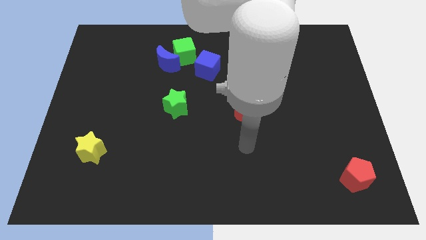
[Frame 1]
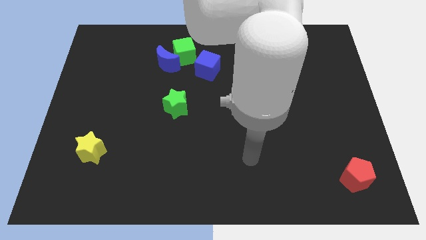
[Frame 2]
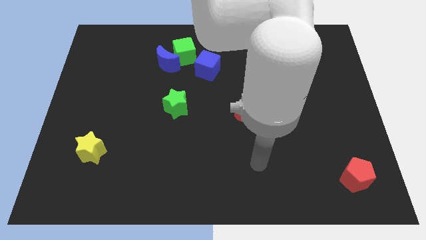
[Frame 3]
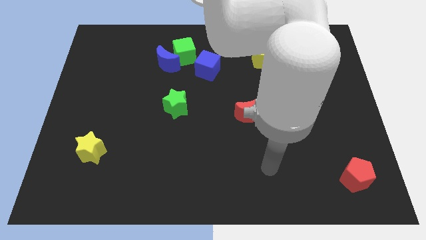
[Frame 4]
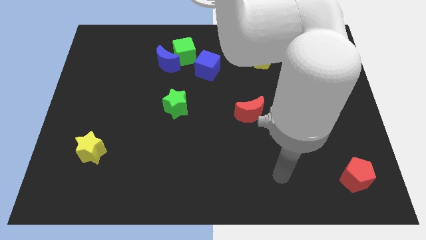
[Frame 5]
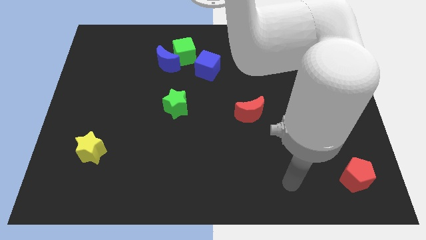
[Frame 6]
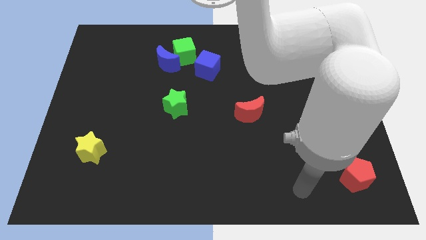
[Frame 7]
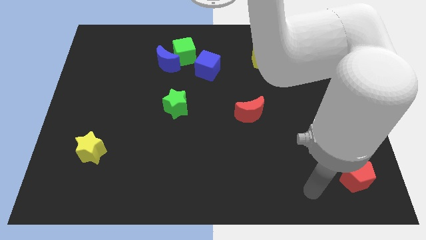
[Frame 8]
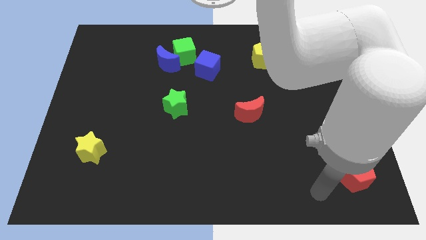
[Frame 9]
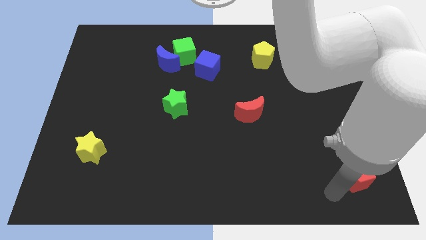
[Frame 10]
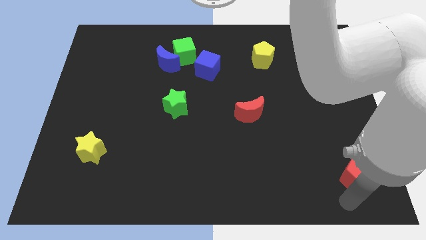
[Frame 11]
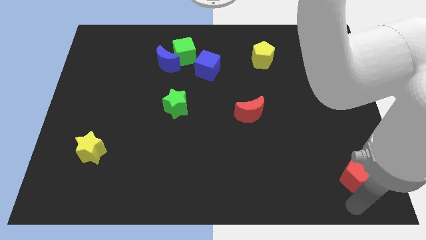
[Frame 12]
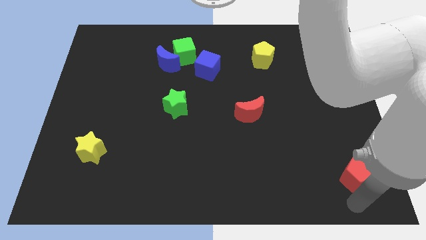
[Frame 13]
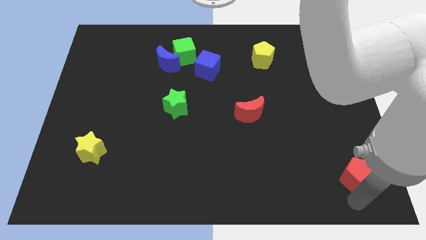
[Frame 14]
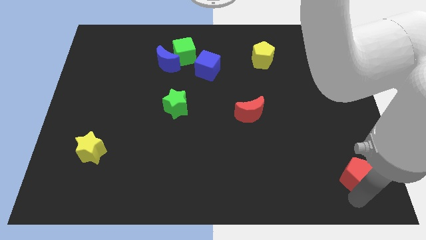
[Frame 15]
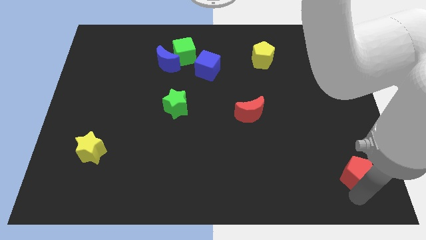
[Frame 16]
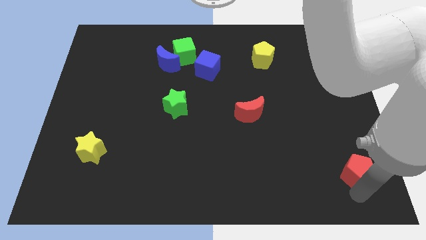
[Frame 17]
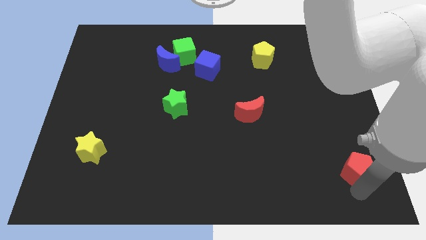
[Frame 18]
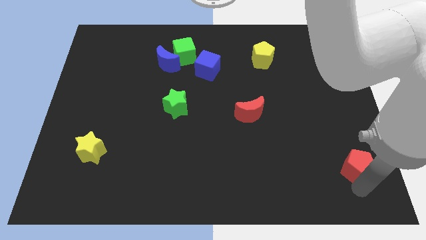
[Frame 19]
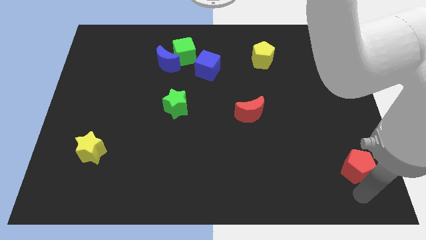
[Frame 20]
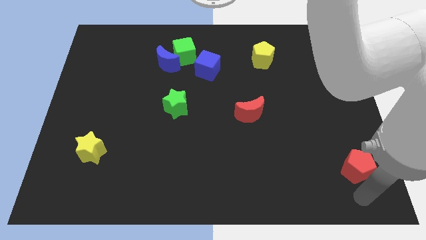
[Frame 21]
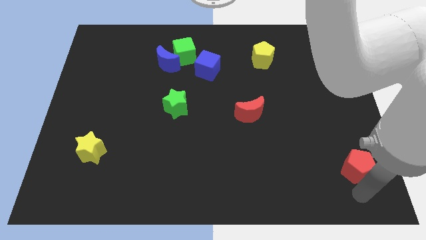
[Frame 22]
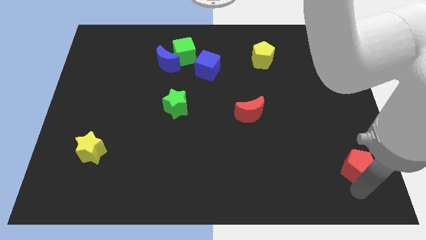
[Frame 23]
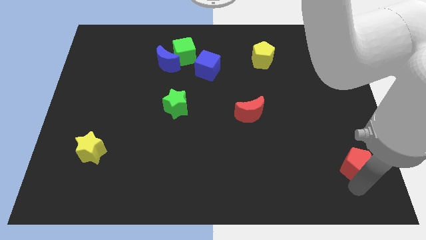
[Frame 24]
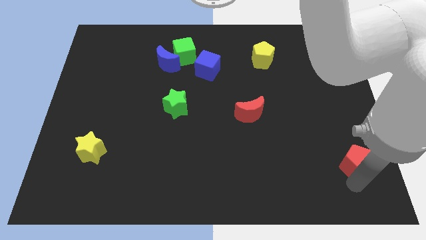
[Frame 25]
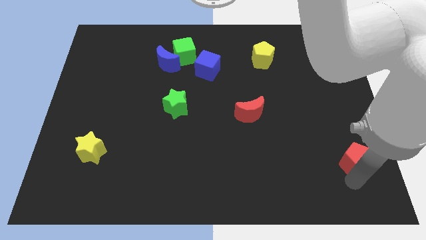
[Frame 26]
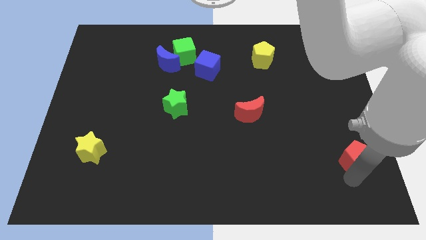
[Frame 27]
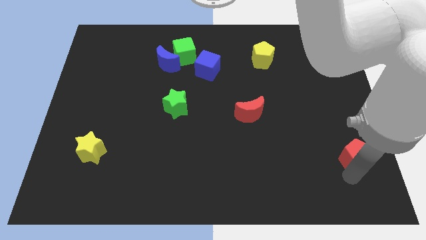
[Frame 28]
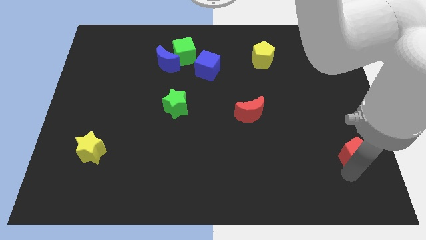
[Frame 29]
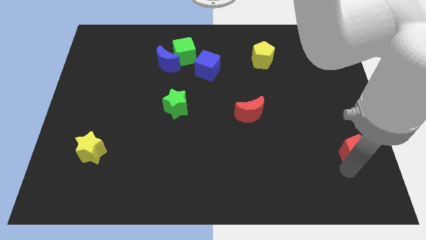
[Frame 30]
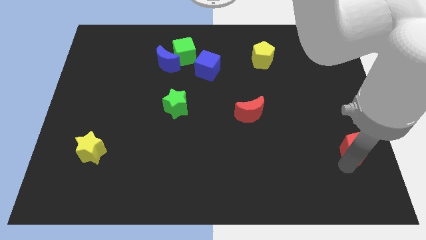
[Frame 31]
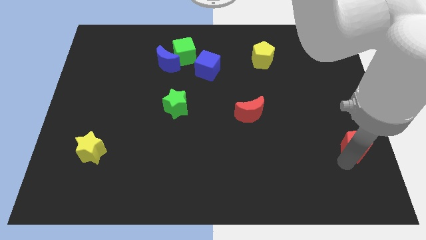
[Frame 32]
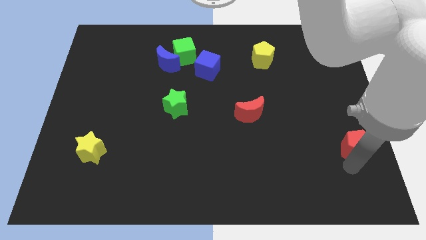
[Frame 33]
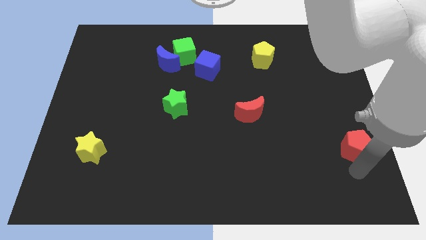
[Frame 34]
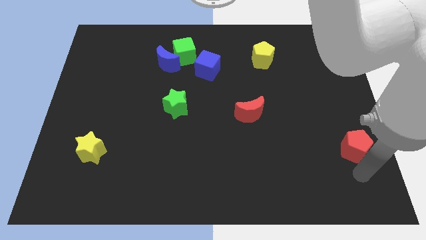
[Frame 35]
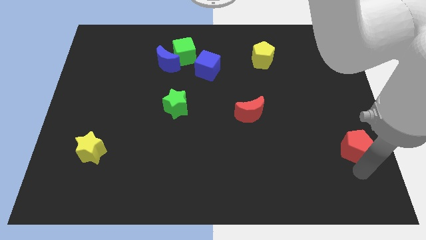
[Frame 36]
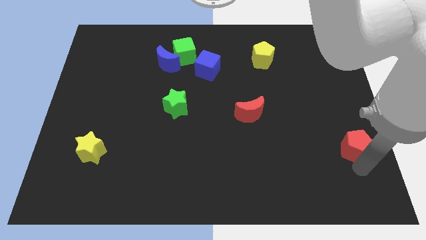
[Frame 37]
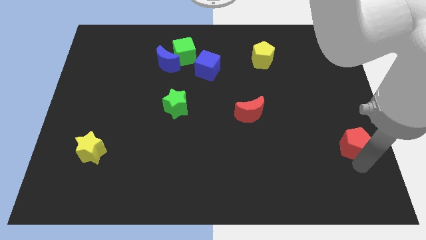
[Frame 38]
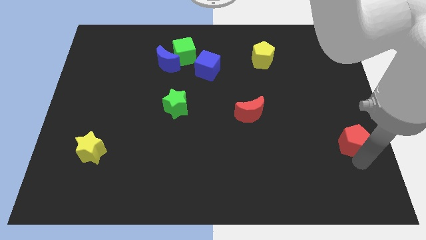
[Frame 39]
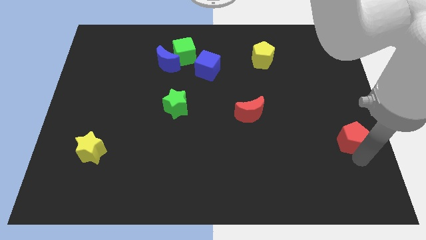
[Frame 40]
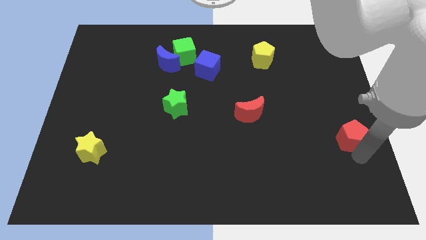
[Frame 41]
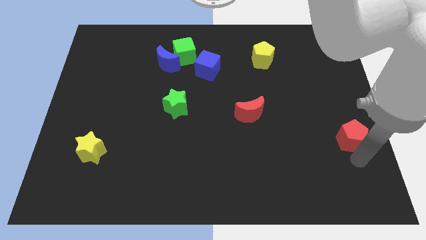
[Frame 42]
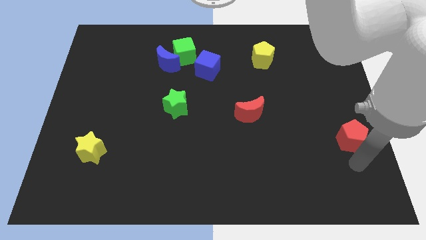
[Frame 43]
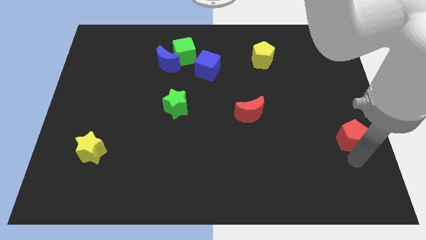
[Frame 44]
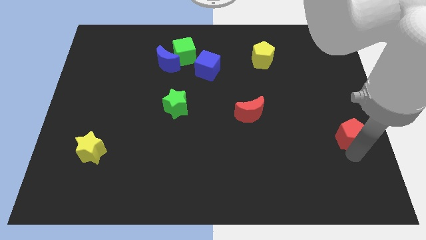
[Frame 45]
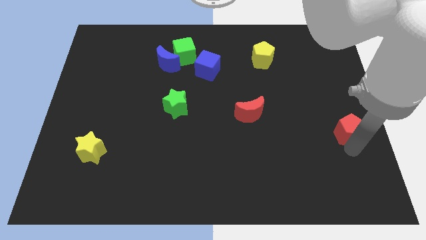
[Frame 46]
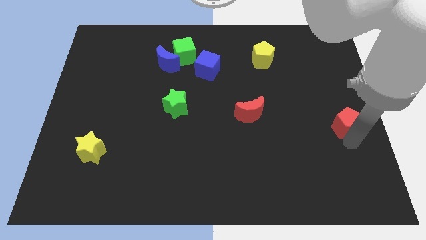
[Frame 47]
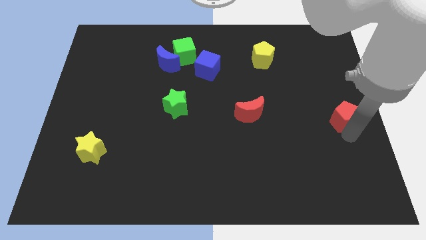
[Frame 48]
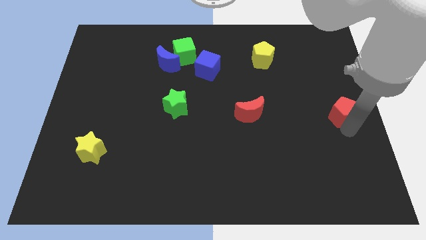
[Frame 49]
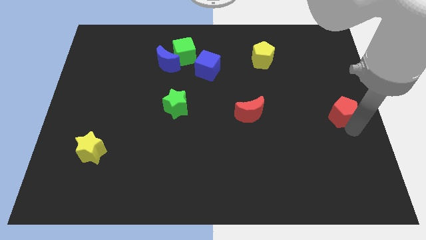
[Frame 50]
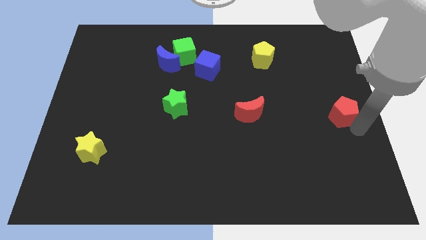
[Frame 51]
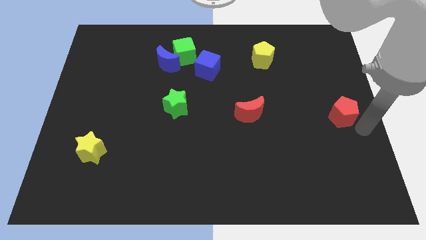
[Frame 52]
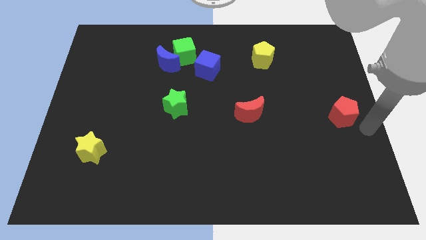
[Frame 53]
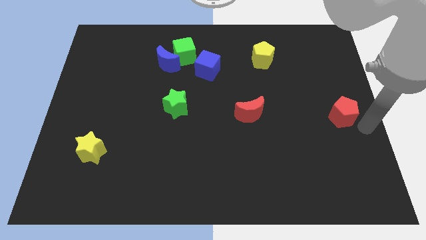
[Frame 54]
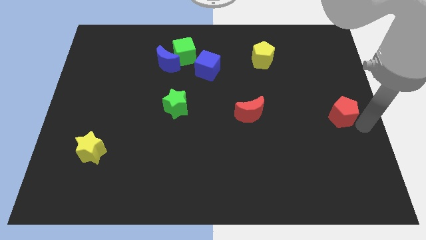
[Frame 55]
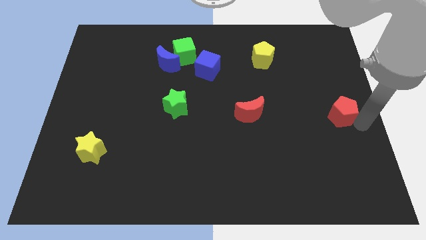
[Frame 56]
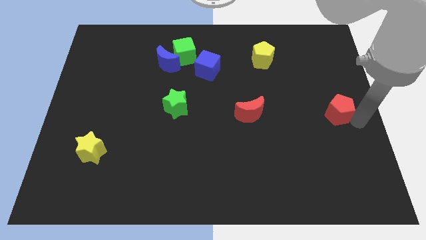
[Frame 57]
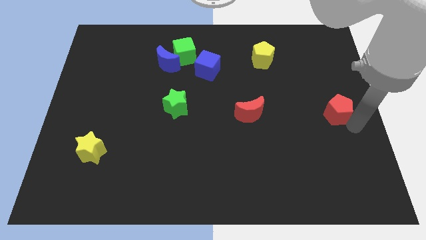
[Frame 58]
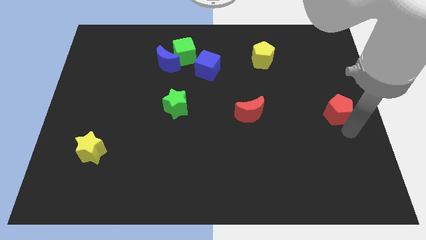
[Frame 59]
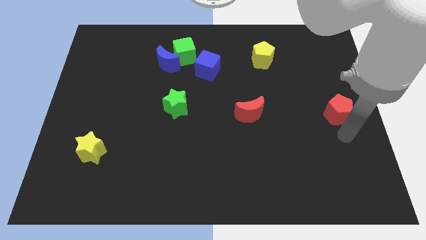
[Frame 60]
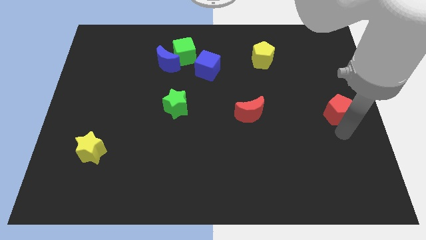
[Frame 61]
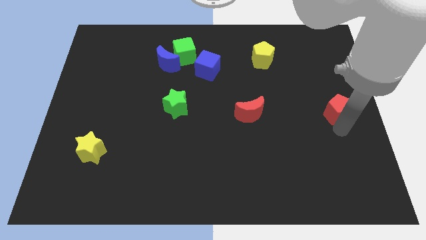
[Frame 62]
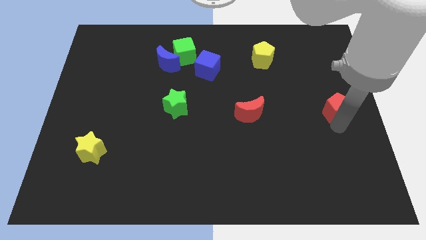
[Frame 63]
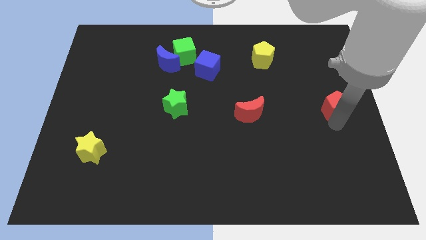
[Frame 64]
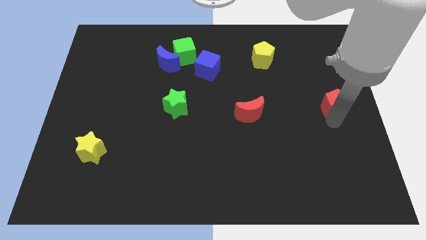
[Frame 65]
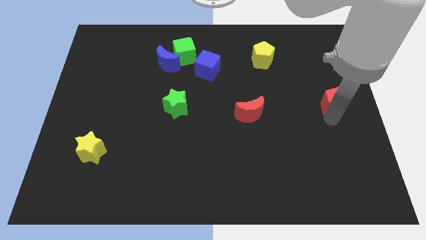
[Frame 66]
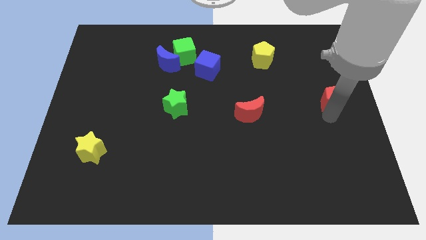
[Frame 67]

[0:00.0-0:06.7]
move the red pentagon up

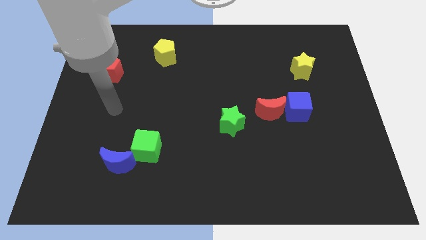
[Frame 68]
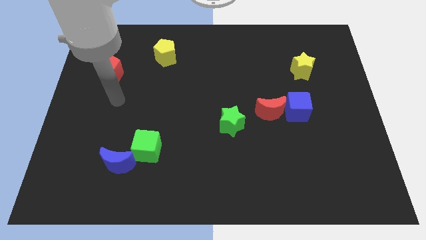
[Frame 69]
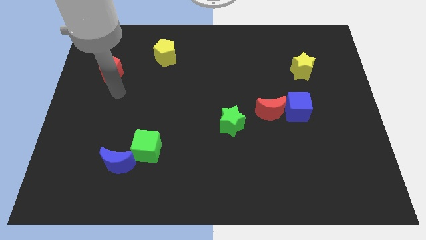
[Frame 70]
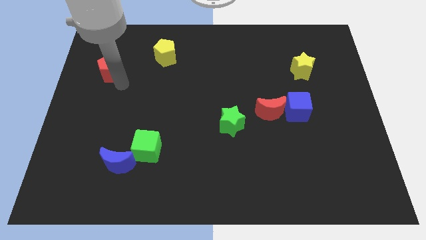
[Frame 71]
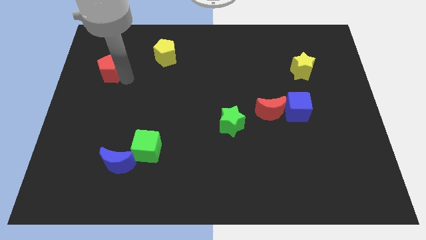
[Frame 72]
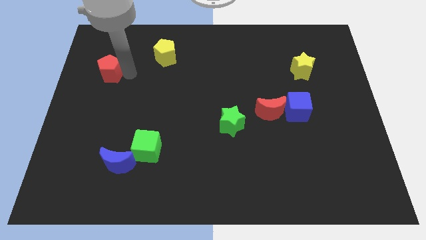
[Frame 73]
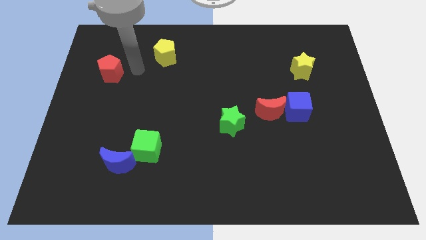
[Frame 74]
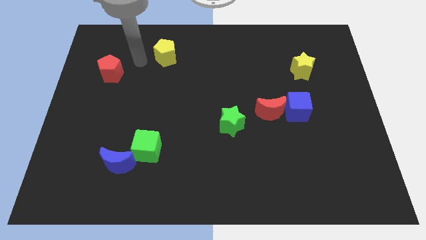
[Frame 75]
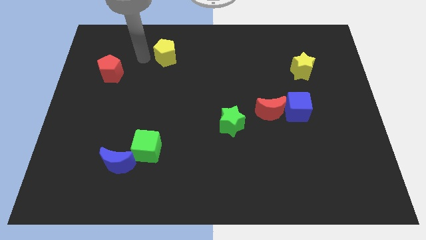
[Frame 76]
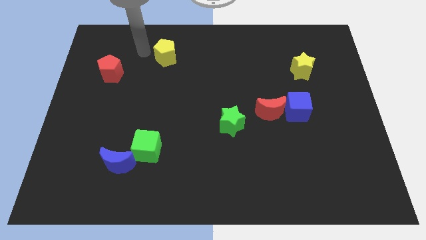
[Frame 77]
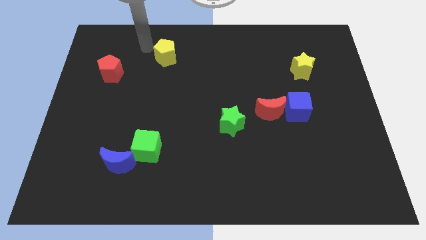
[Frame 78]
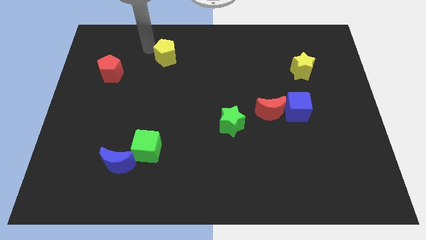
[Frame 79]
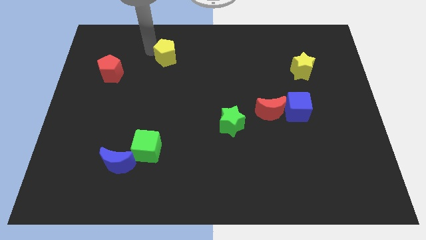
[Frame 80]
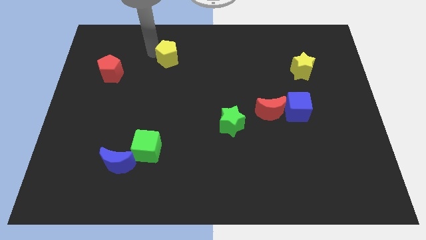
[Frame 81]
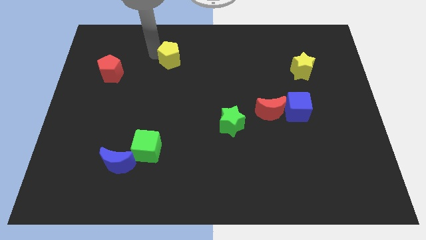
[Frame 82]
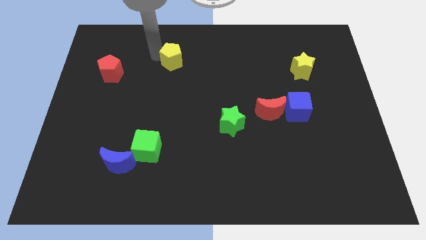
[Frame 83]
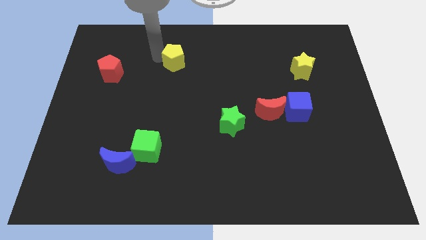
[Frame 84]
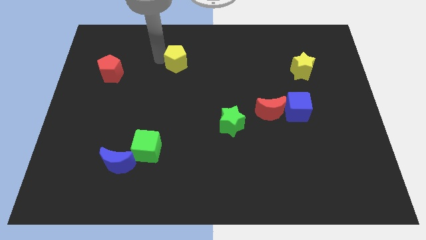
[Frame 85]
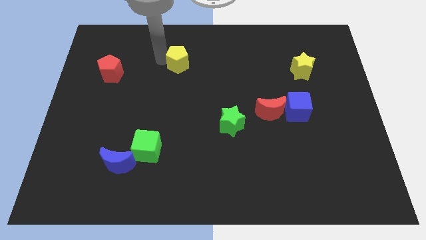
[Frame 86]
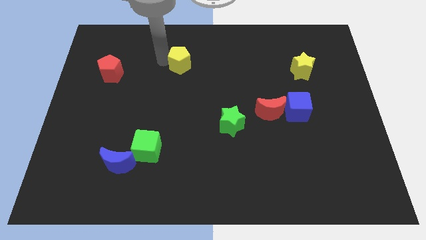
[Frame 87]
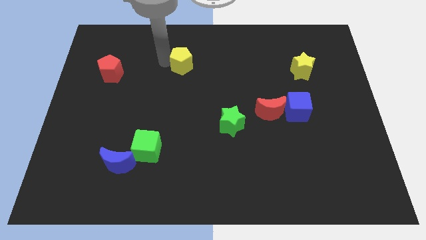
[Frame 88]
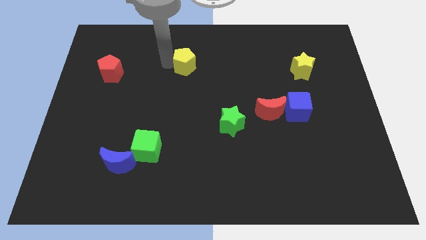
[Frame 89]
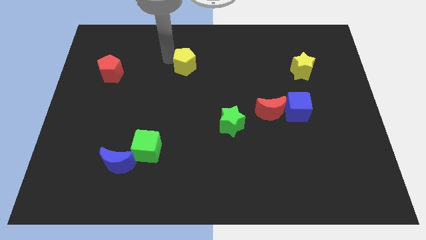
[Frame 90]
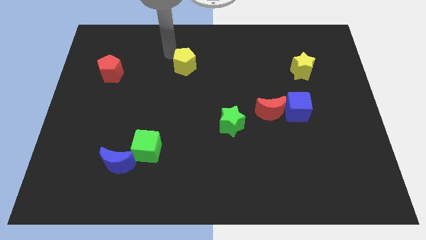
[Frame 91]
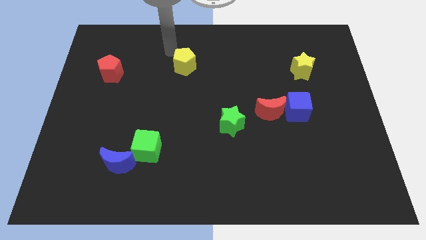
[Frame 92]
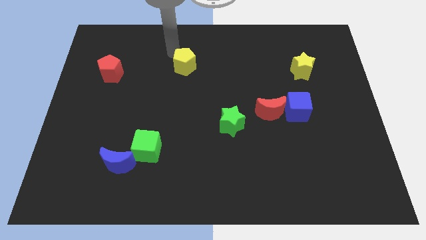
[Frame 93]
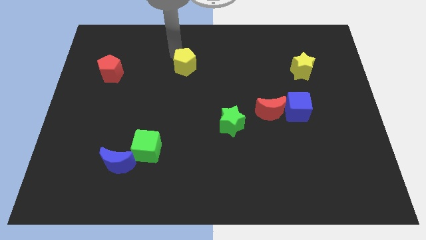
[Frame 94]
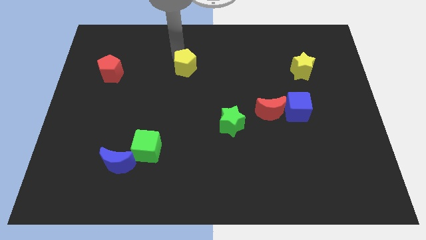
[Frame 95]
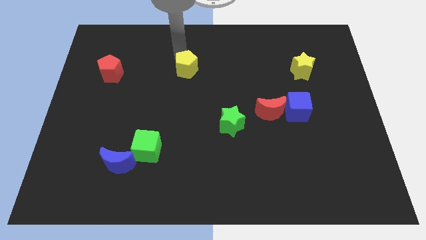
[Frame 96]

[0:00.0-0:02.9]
slightly move the yellow pentagon down and to the right
